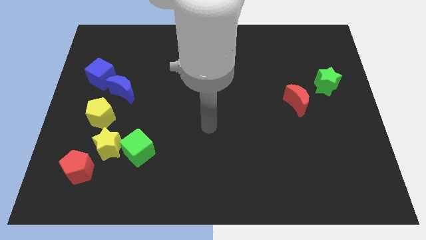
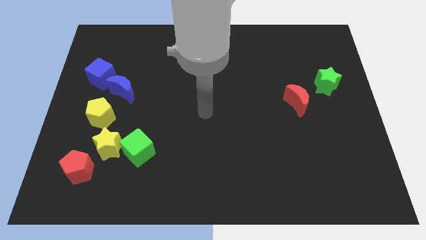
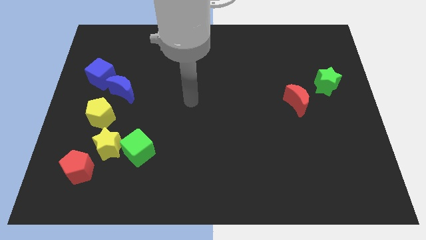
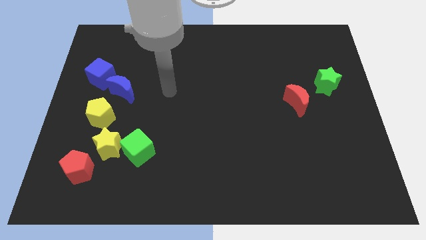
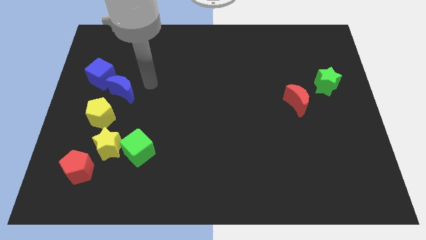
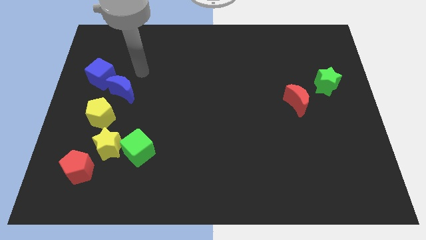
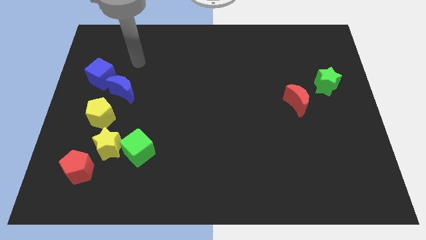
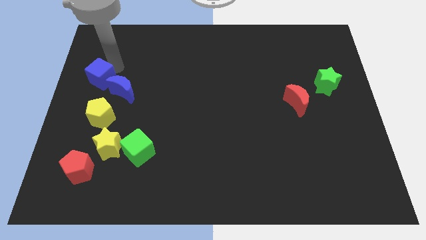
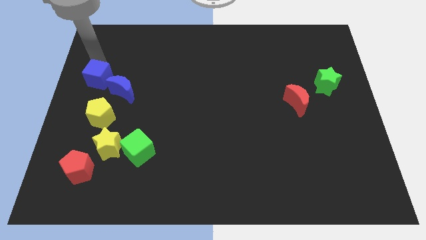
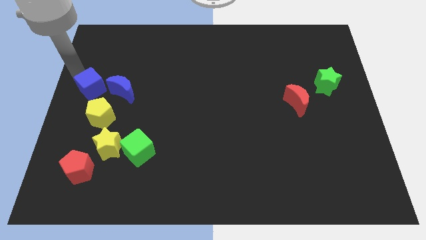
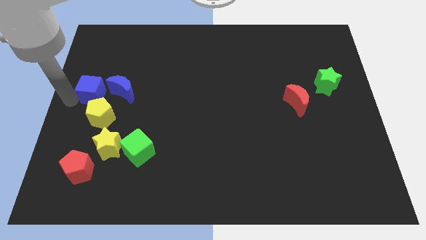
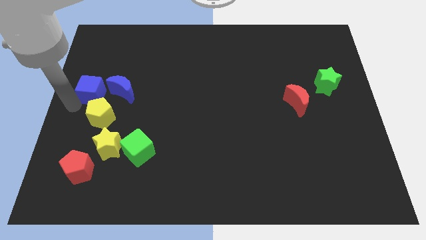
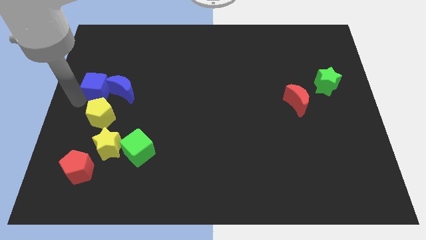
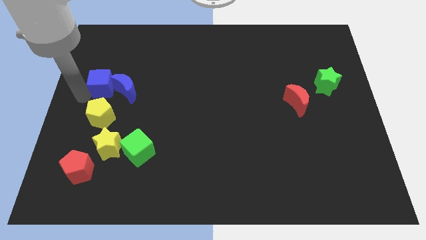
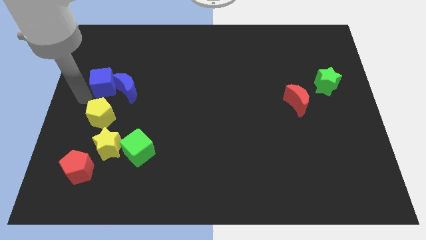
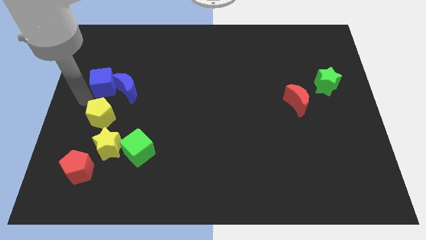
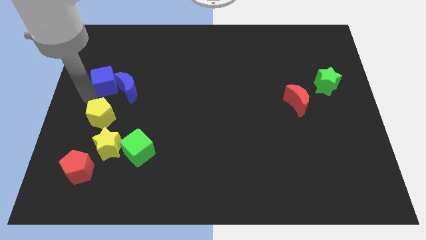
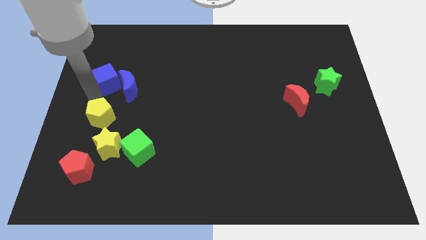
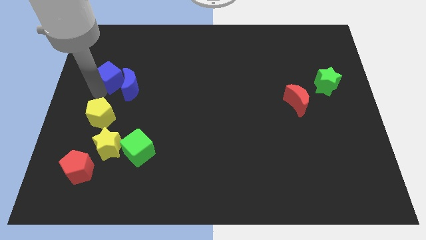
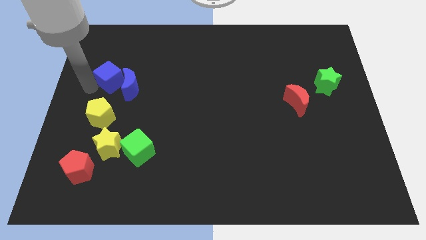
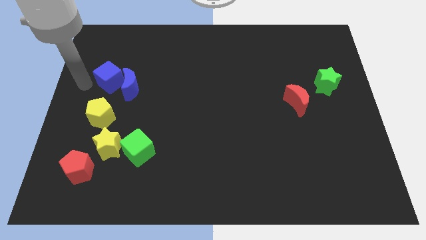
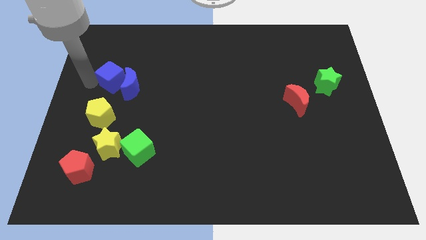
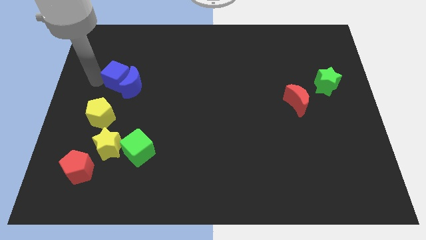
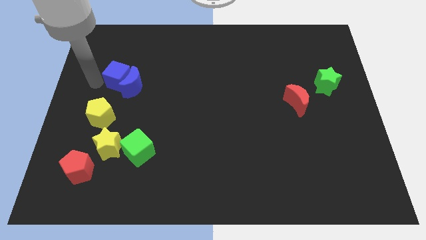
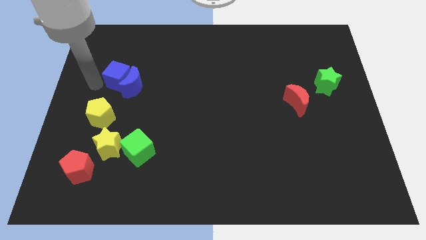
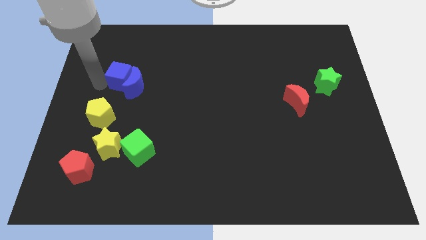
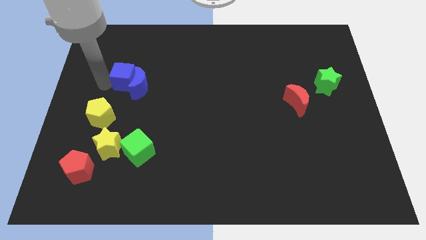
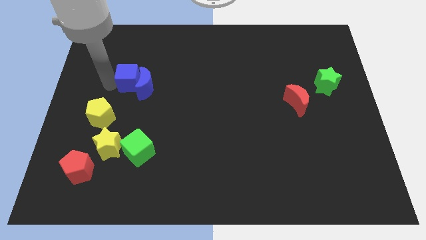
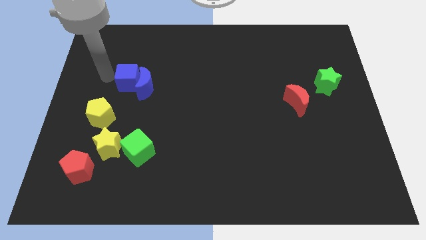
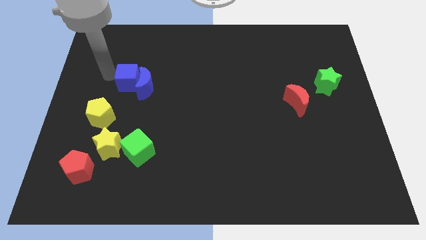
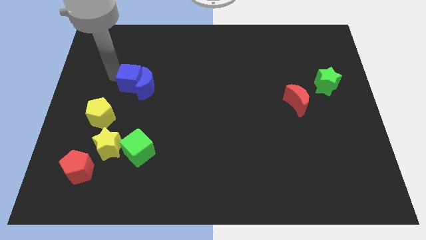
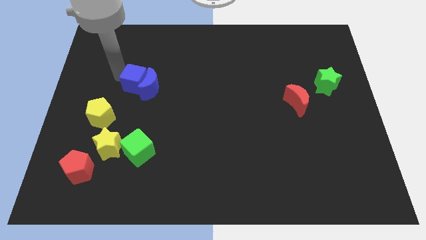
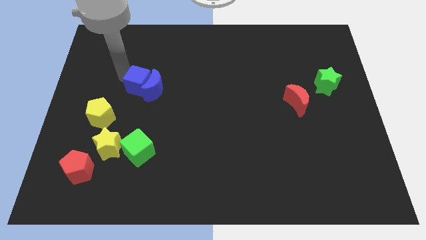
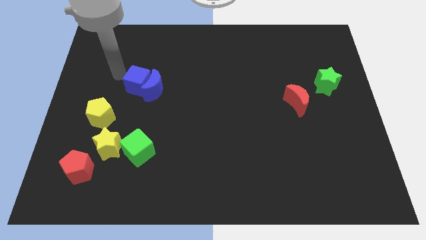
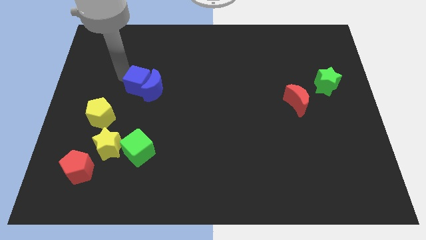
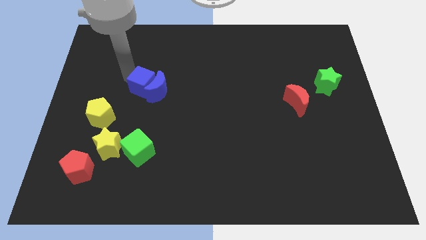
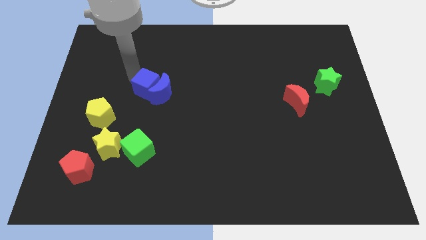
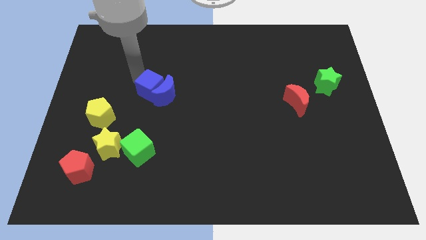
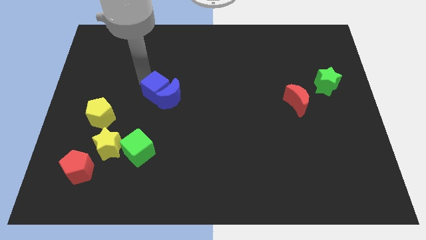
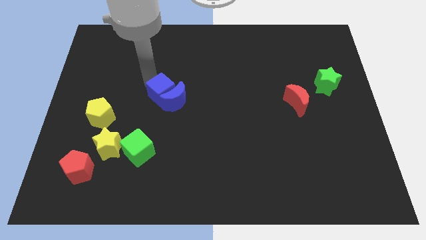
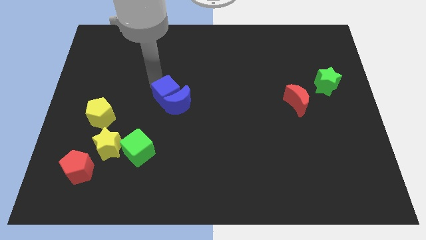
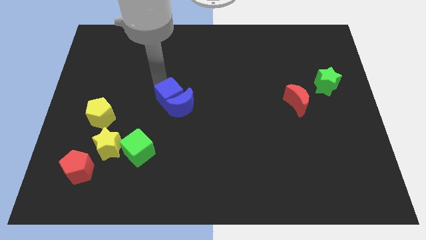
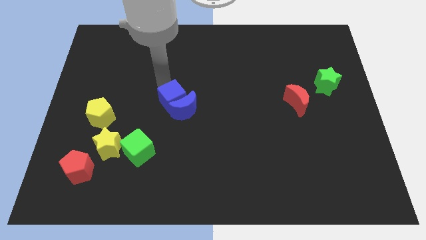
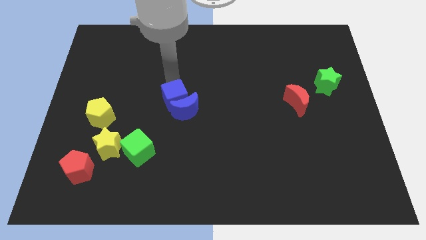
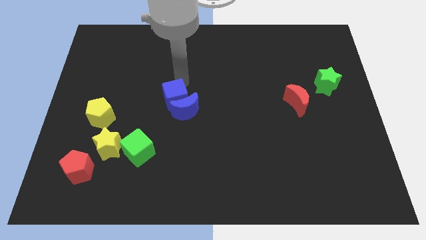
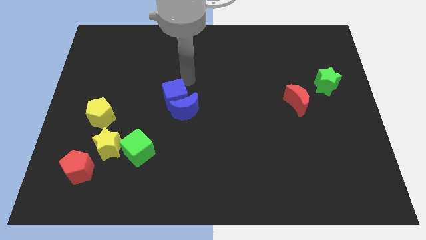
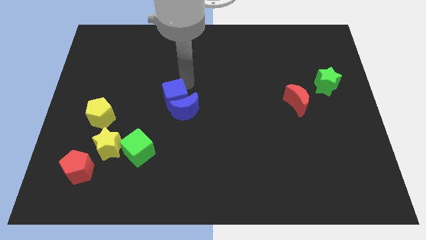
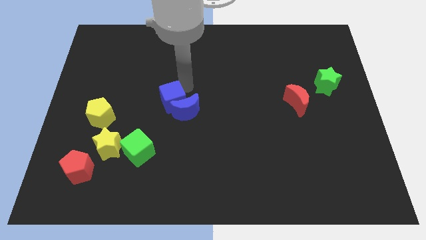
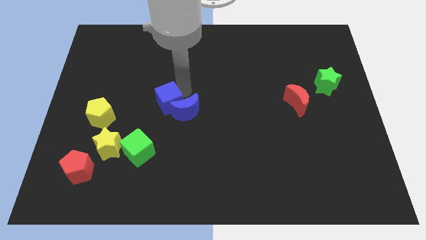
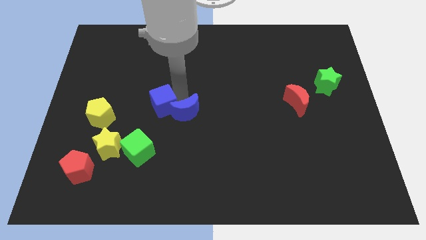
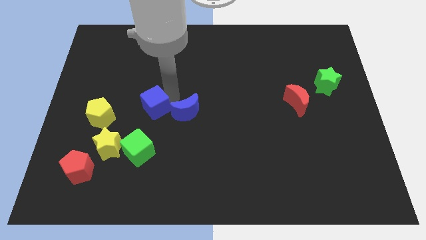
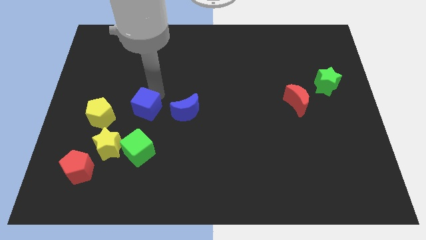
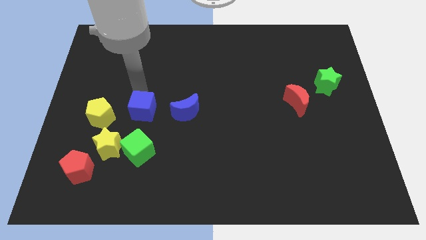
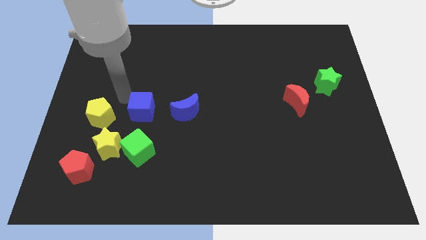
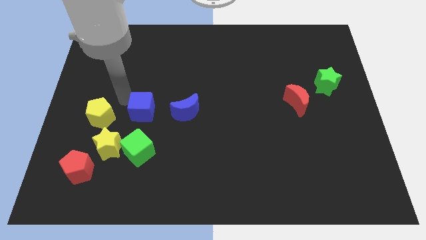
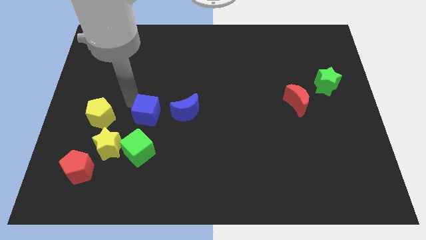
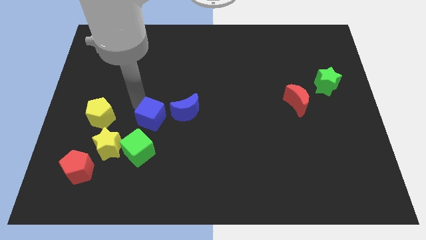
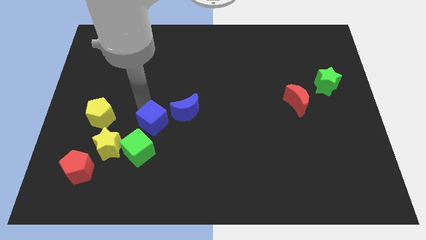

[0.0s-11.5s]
push the blue cube down and to the right diagonally

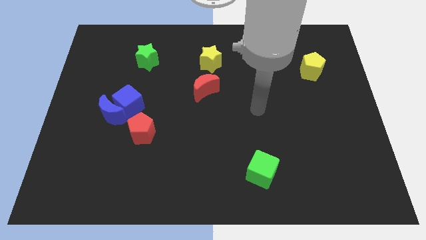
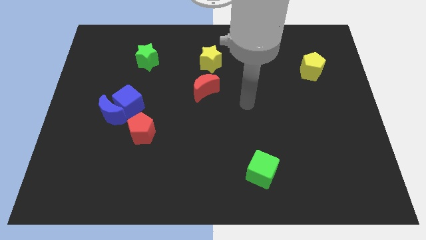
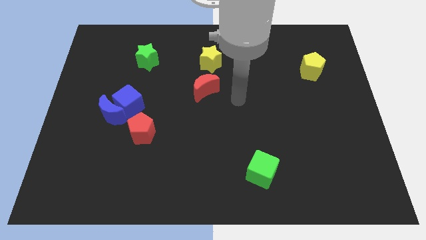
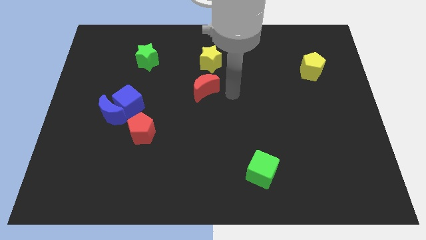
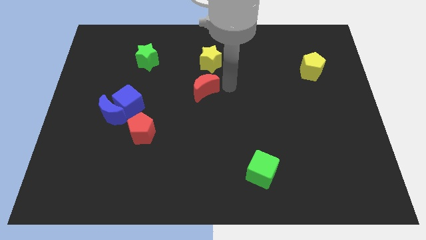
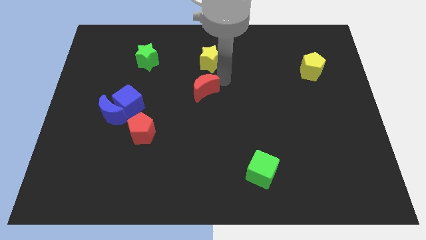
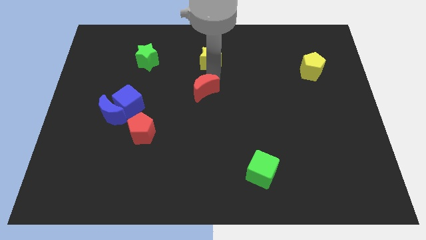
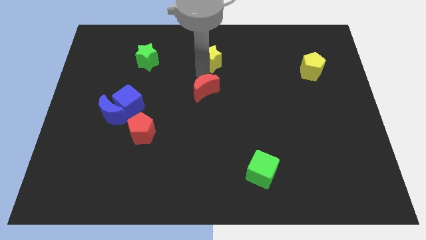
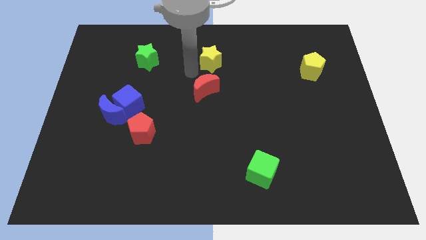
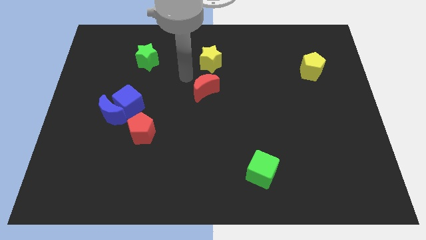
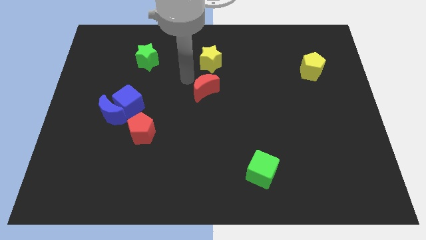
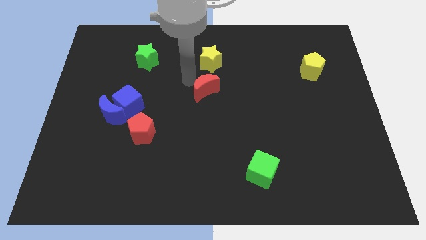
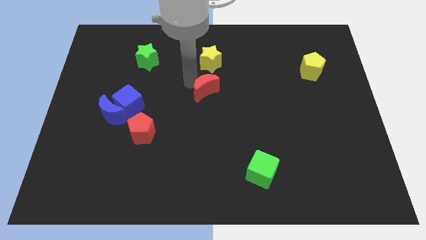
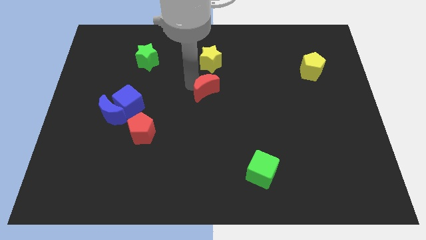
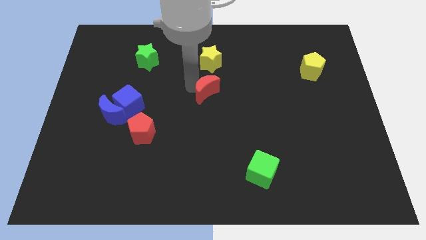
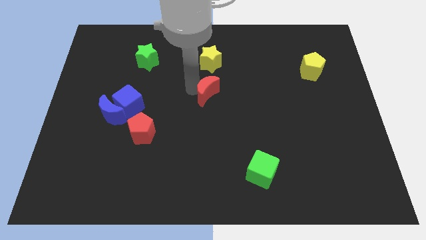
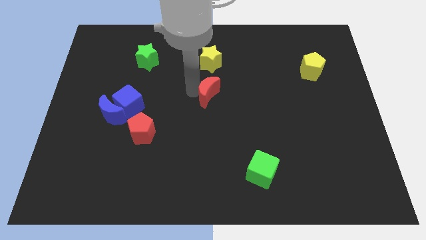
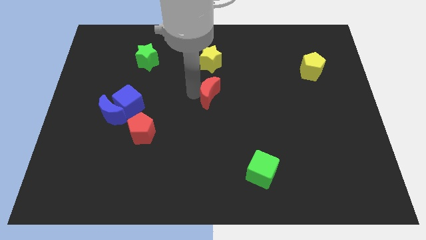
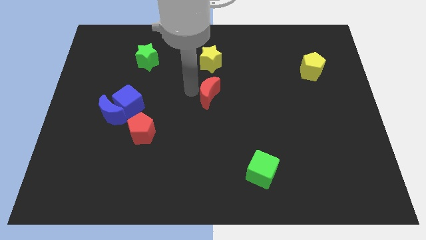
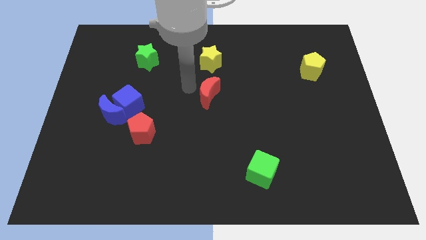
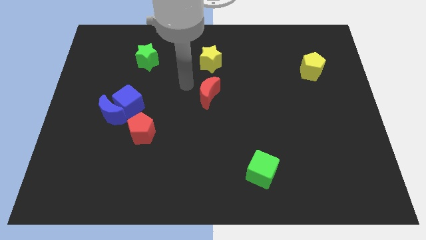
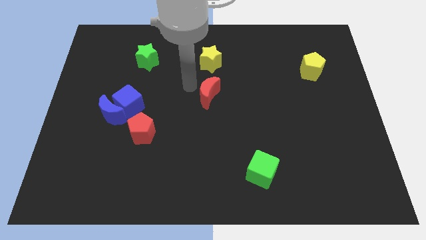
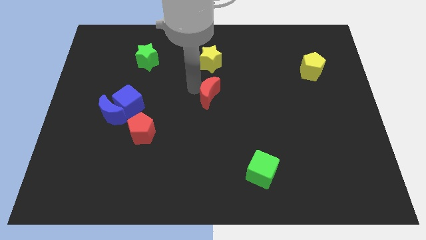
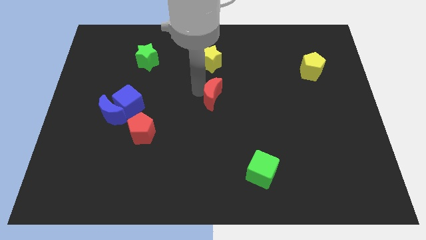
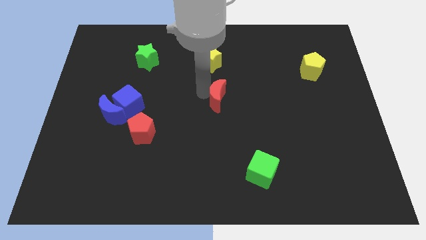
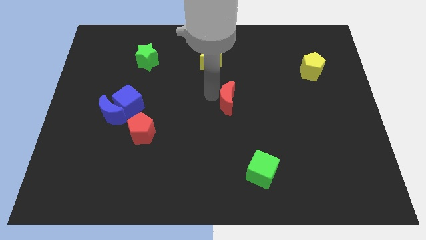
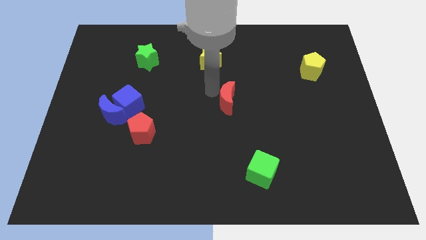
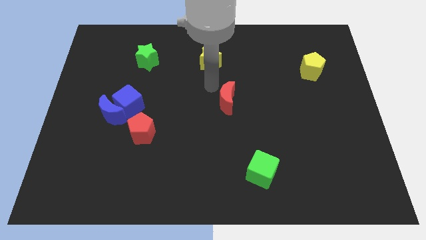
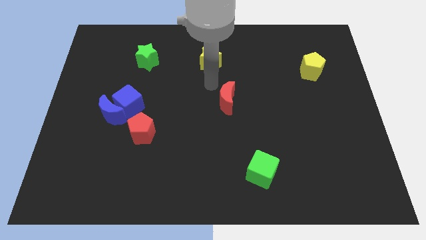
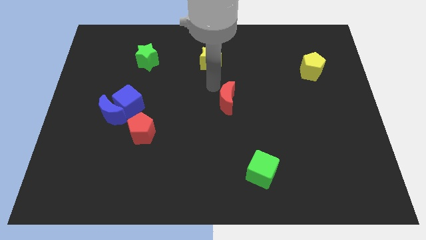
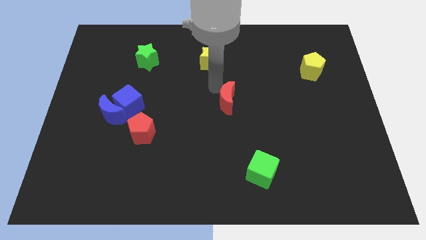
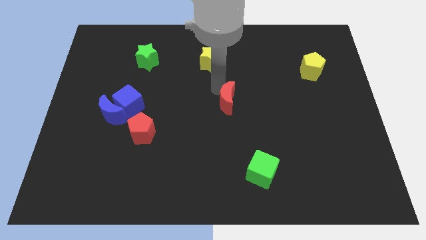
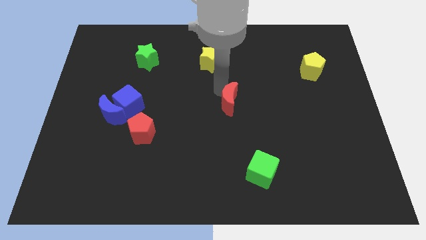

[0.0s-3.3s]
push the red moon diagonally down and right a bit
